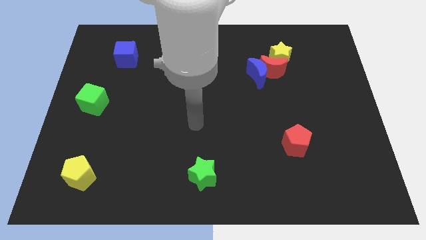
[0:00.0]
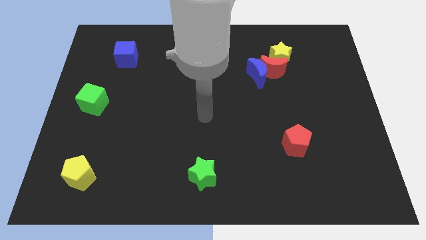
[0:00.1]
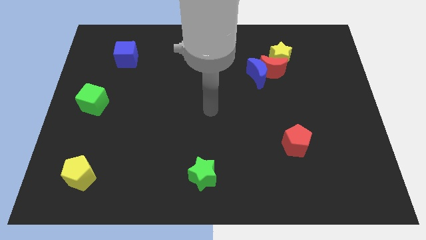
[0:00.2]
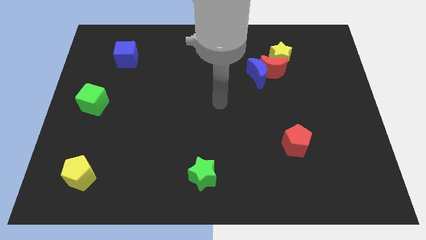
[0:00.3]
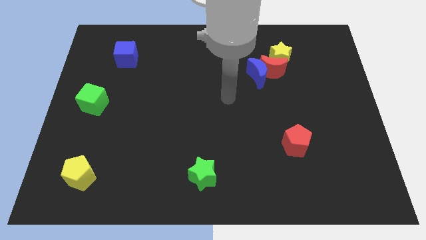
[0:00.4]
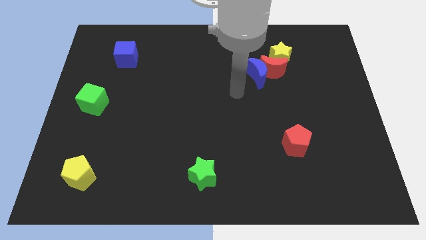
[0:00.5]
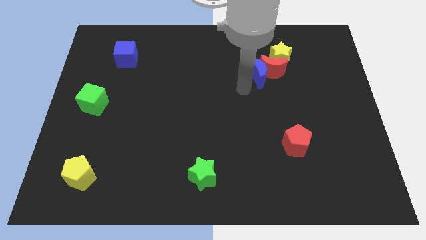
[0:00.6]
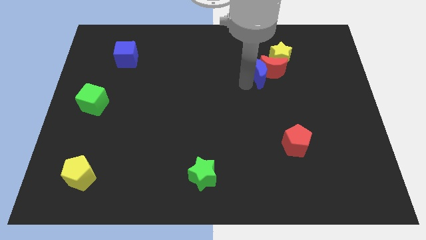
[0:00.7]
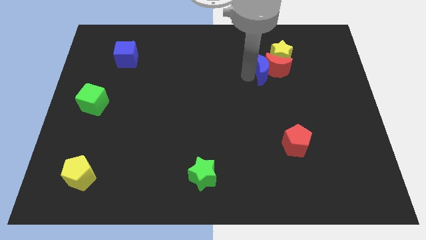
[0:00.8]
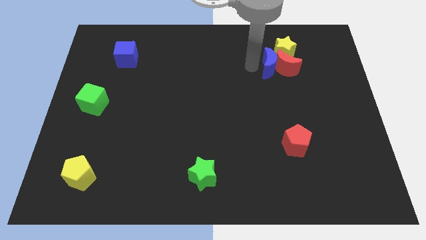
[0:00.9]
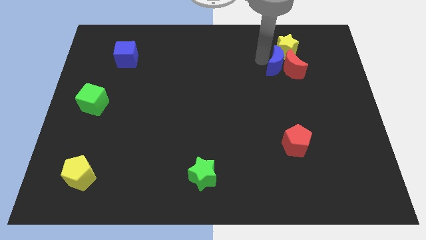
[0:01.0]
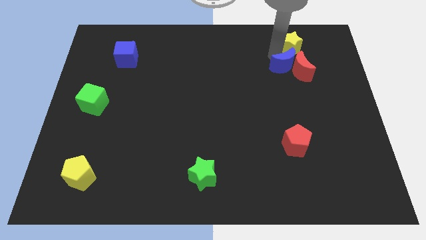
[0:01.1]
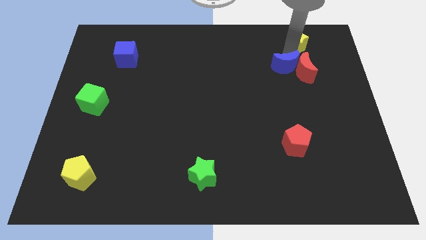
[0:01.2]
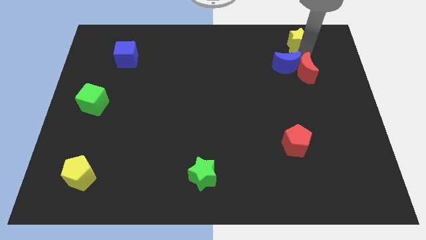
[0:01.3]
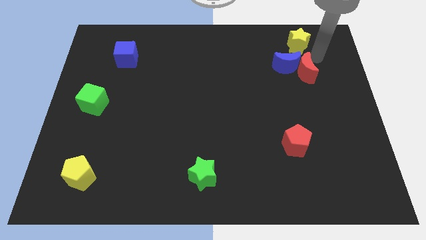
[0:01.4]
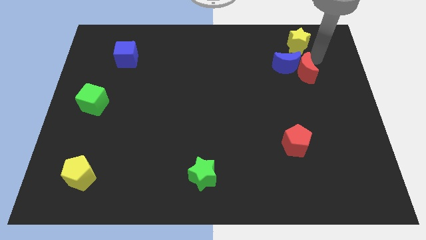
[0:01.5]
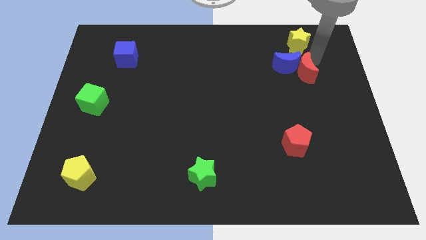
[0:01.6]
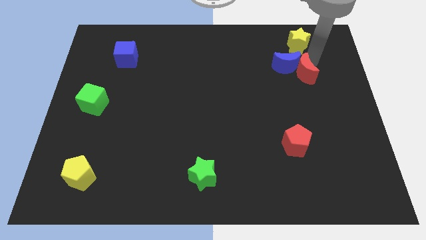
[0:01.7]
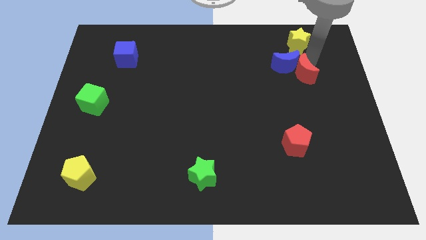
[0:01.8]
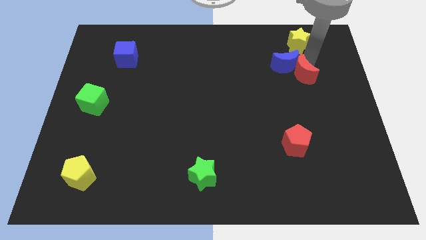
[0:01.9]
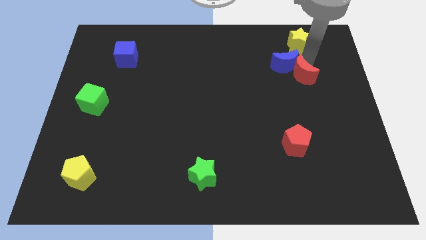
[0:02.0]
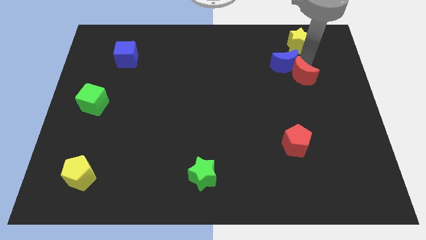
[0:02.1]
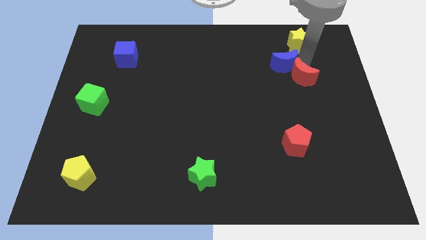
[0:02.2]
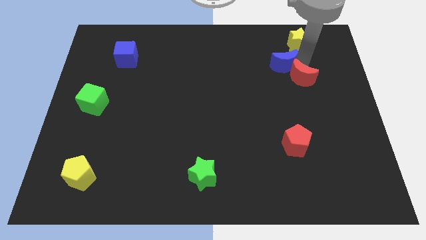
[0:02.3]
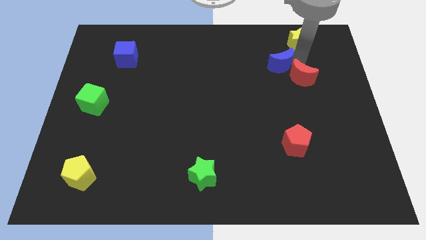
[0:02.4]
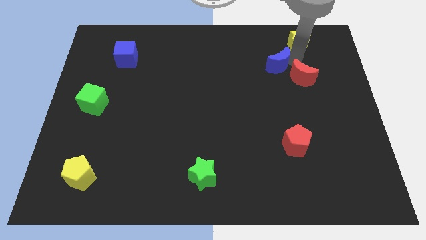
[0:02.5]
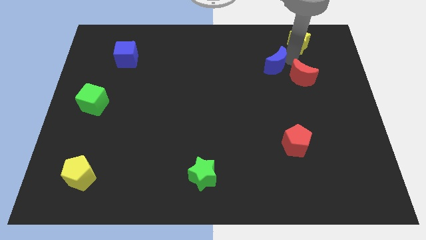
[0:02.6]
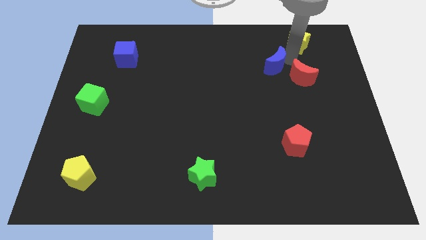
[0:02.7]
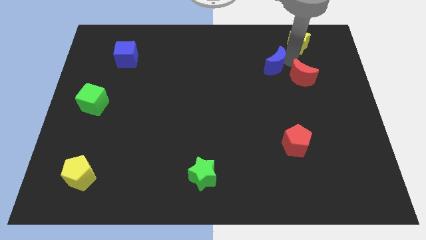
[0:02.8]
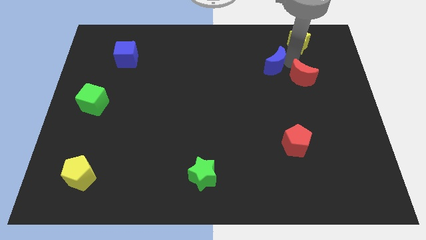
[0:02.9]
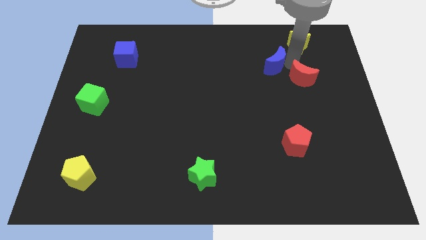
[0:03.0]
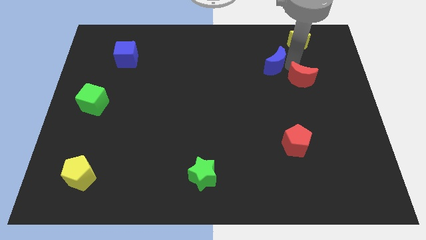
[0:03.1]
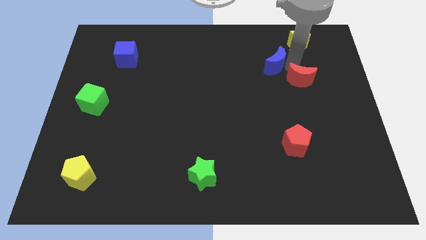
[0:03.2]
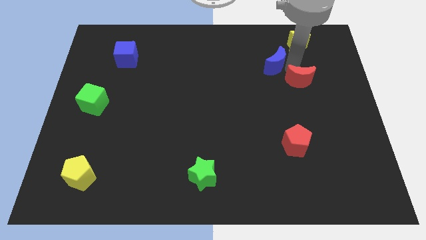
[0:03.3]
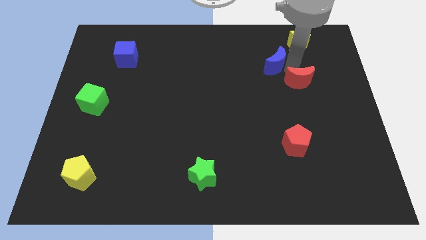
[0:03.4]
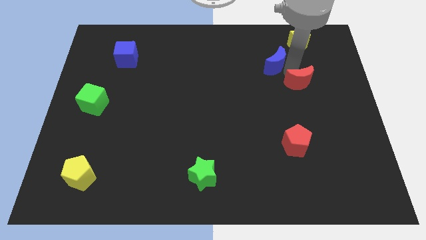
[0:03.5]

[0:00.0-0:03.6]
pull the red moon apart from the blue moon and yellow star

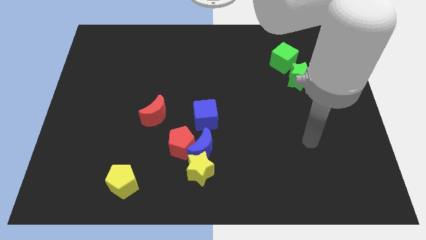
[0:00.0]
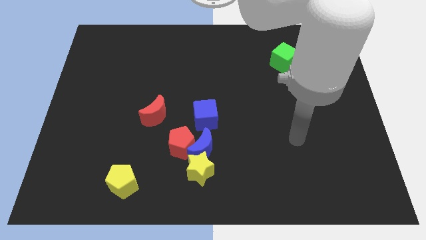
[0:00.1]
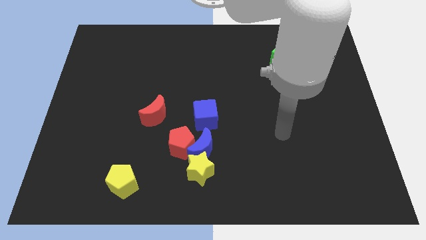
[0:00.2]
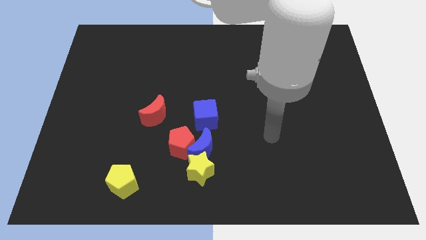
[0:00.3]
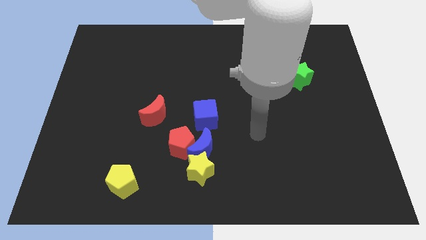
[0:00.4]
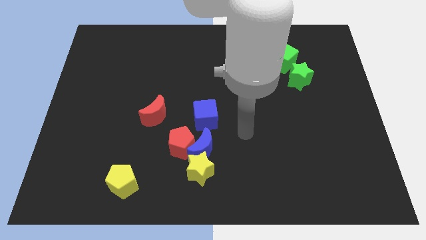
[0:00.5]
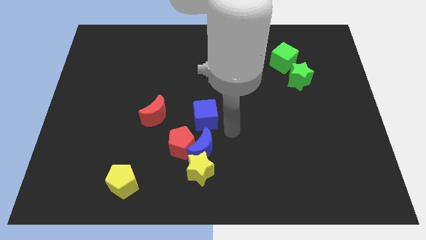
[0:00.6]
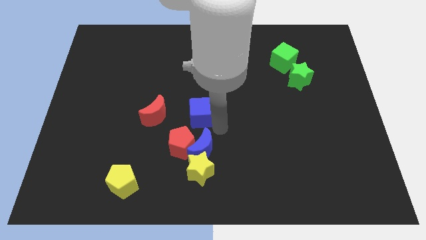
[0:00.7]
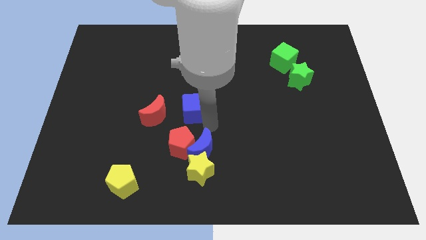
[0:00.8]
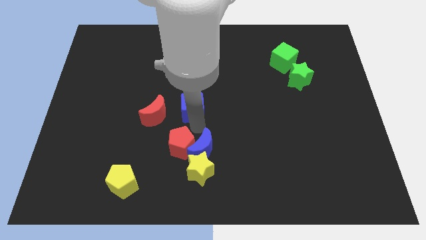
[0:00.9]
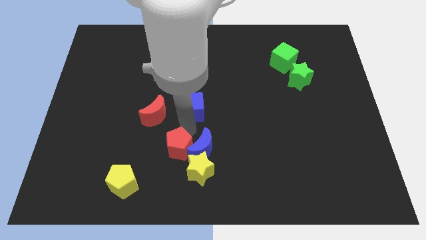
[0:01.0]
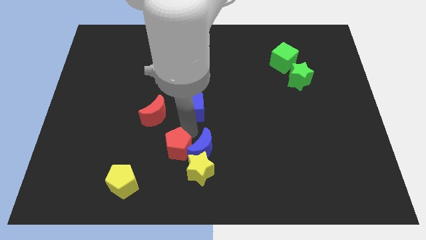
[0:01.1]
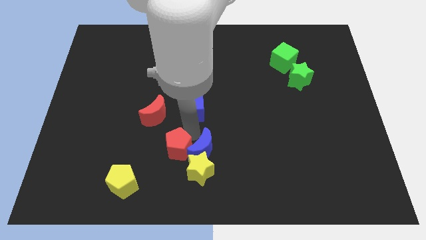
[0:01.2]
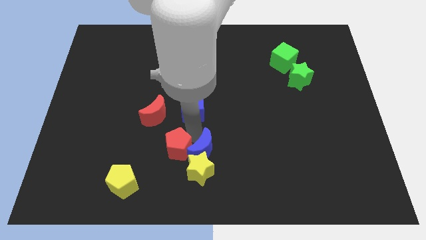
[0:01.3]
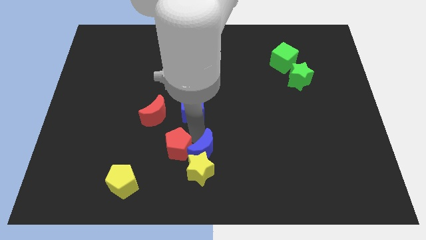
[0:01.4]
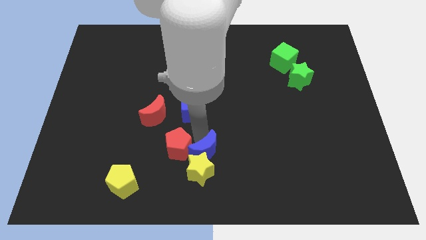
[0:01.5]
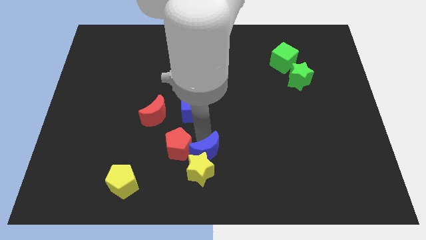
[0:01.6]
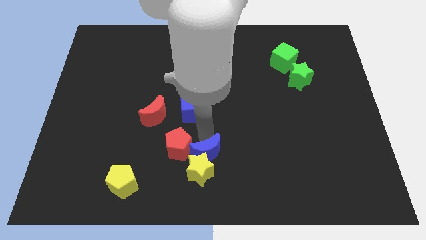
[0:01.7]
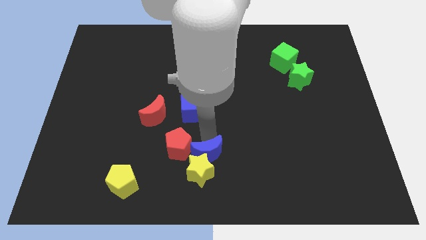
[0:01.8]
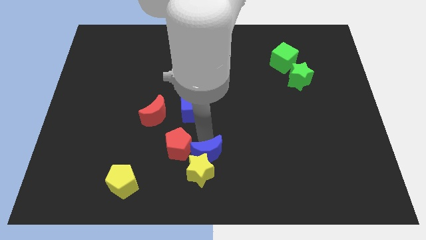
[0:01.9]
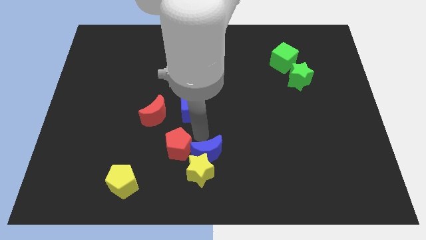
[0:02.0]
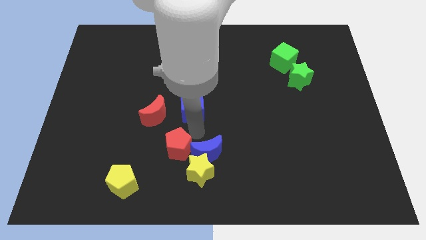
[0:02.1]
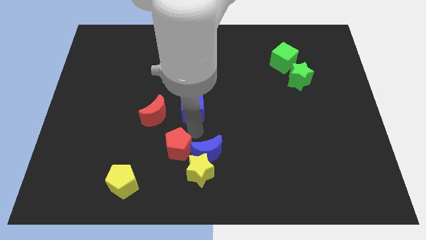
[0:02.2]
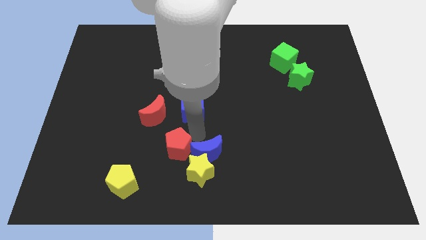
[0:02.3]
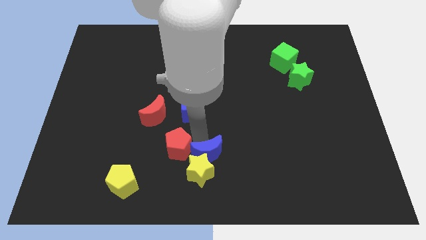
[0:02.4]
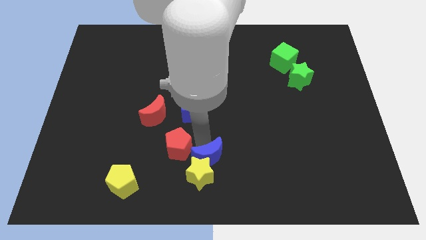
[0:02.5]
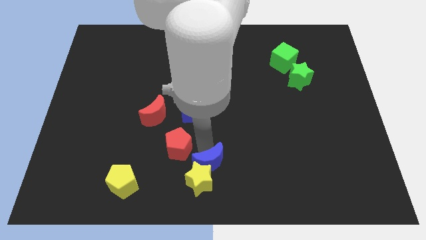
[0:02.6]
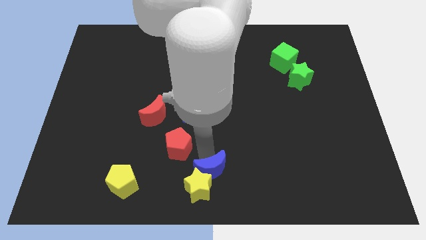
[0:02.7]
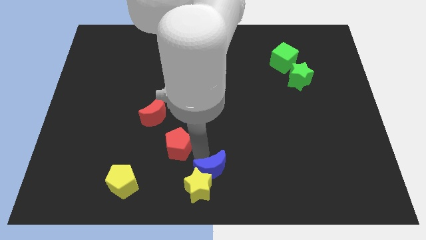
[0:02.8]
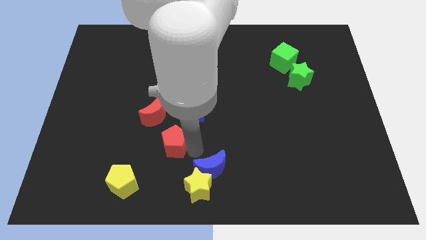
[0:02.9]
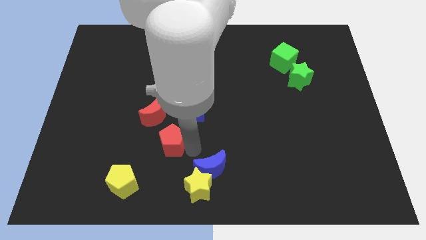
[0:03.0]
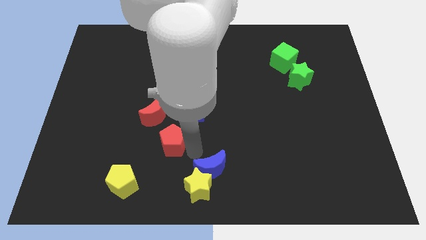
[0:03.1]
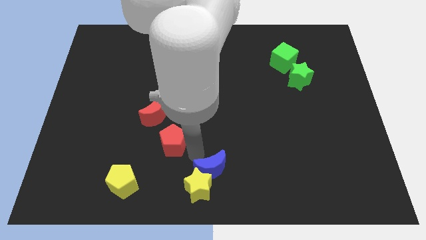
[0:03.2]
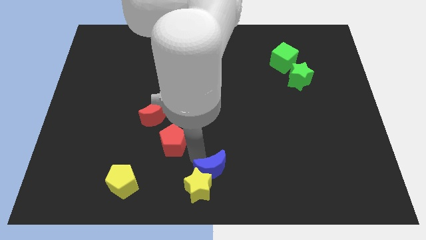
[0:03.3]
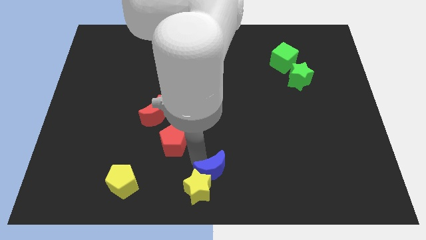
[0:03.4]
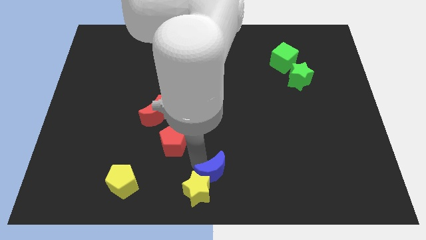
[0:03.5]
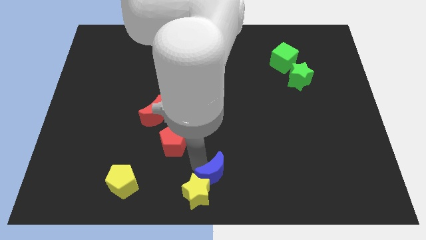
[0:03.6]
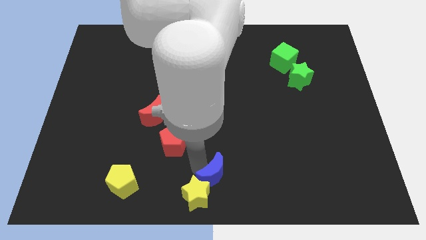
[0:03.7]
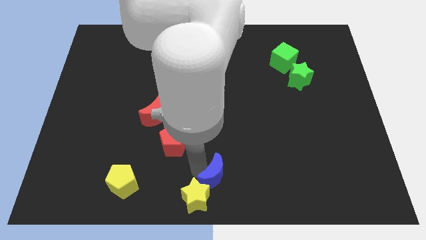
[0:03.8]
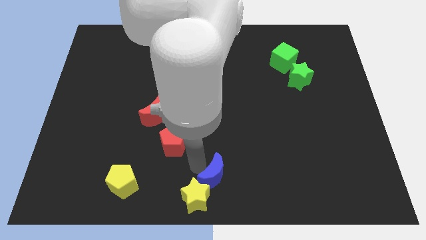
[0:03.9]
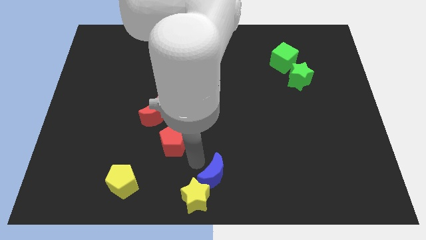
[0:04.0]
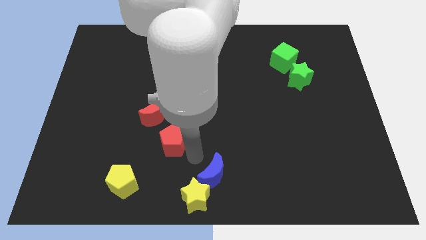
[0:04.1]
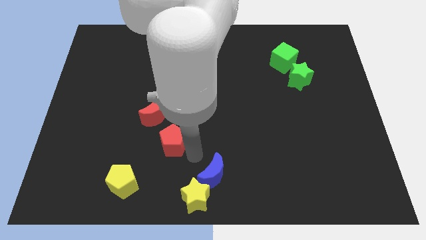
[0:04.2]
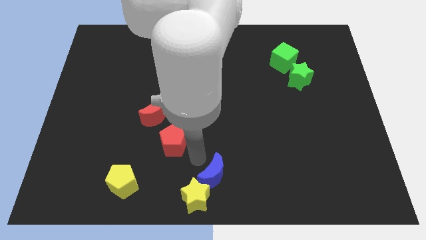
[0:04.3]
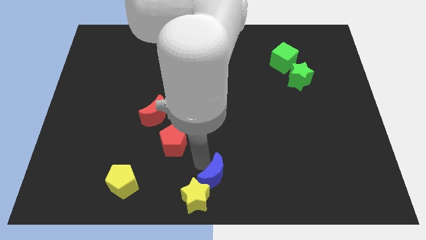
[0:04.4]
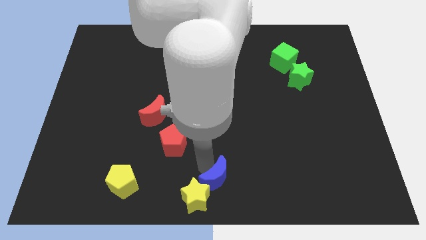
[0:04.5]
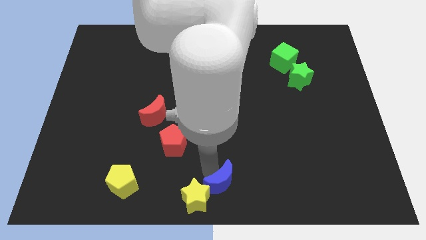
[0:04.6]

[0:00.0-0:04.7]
move the blue moon away from the red pentagon, yellow star, and blue cube

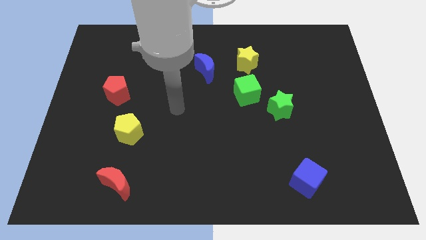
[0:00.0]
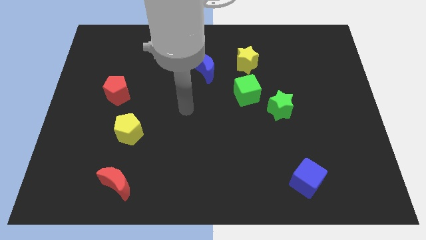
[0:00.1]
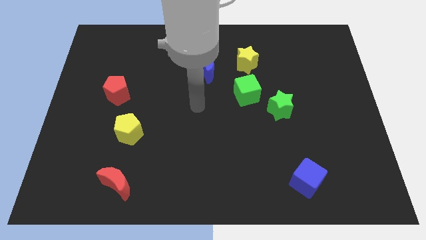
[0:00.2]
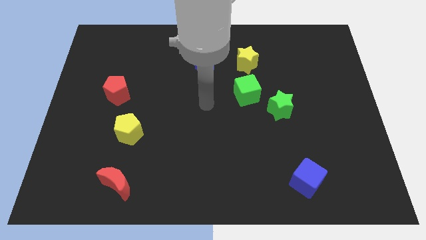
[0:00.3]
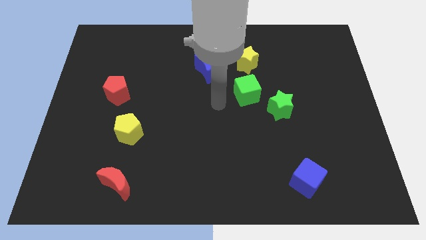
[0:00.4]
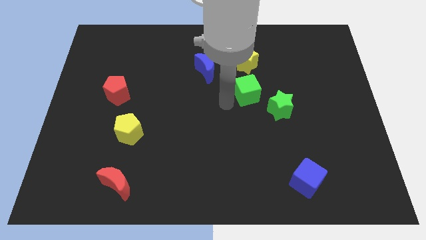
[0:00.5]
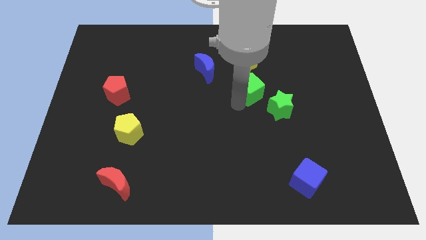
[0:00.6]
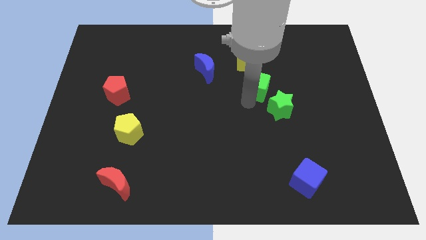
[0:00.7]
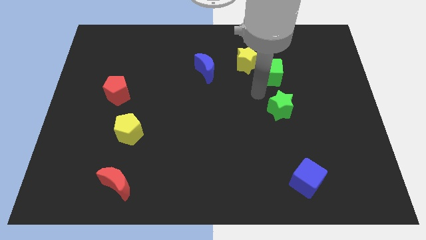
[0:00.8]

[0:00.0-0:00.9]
pull the green star apart from the green cube

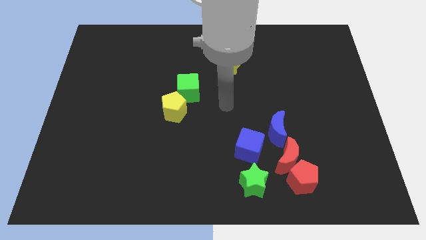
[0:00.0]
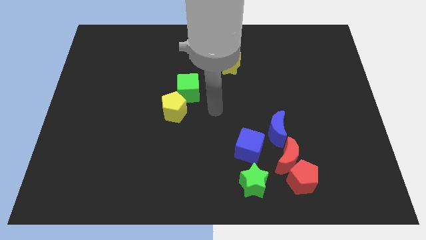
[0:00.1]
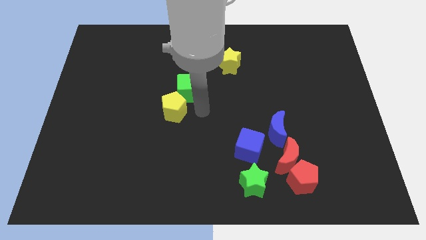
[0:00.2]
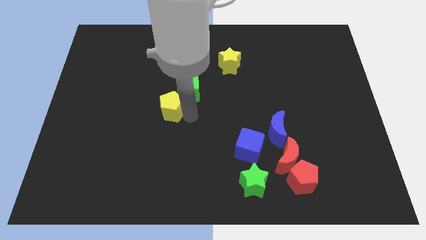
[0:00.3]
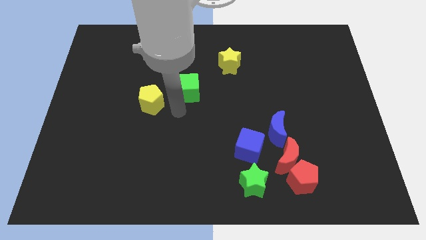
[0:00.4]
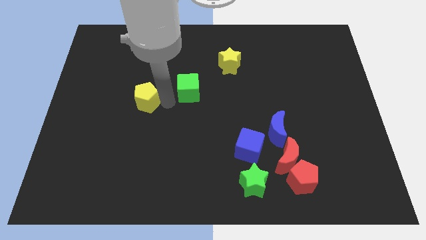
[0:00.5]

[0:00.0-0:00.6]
pull the green cube apart from the yellow pentagon
